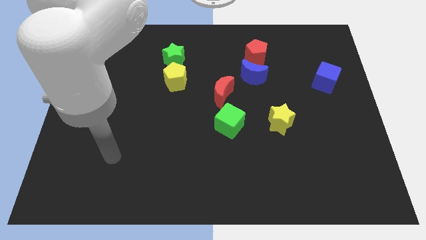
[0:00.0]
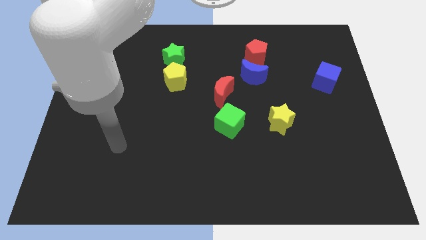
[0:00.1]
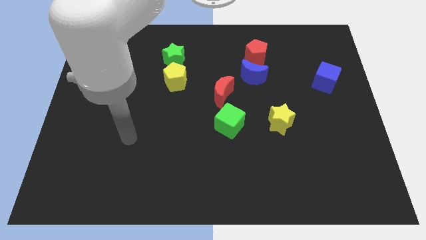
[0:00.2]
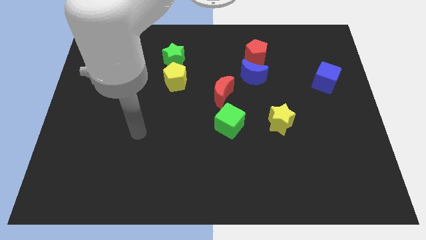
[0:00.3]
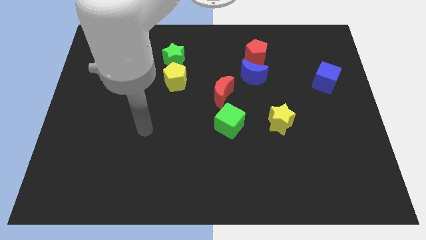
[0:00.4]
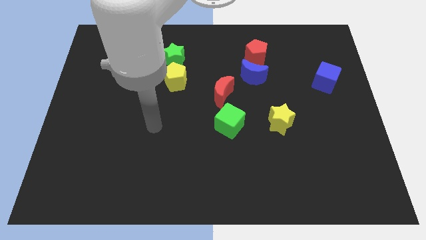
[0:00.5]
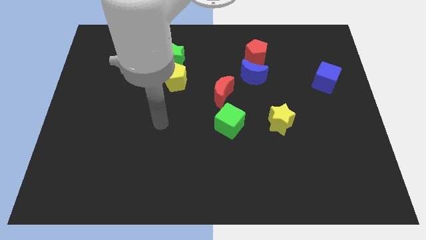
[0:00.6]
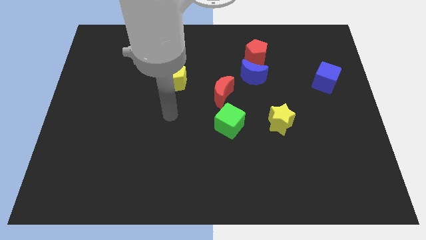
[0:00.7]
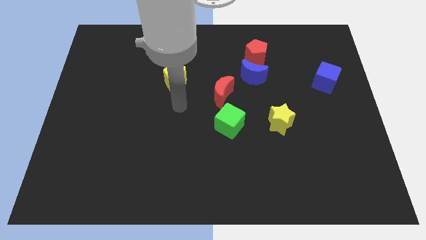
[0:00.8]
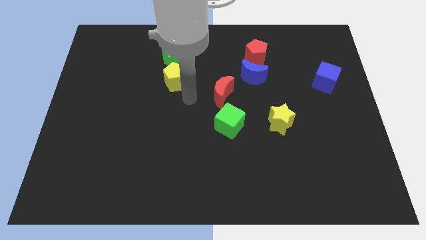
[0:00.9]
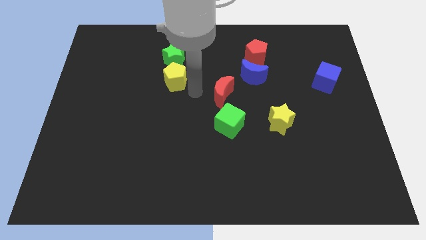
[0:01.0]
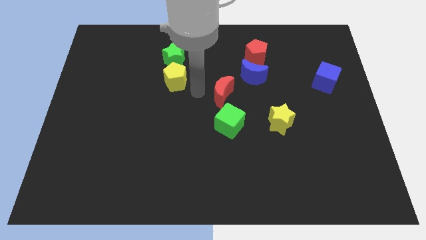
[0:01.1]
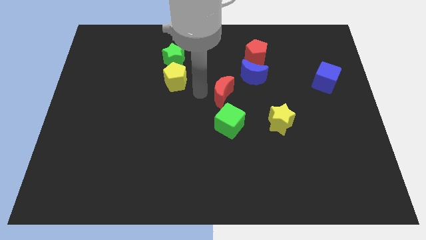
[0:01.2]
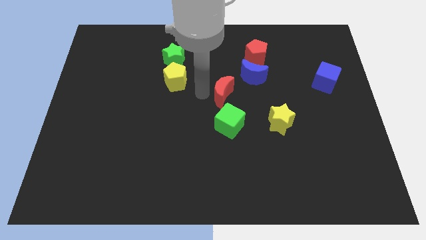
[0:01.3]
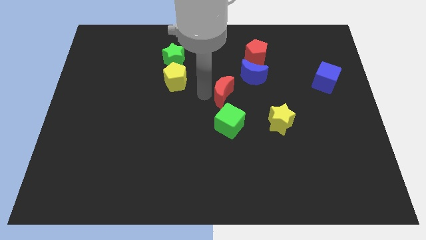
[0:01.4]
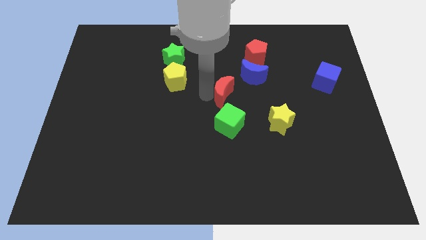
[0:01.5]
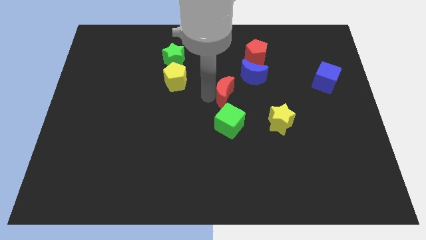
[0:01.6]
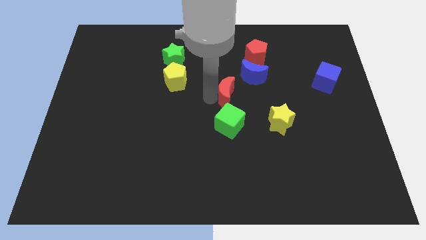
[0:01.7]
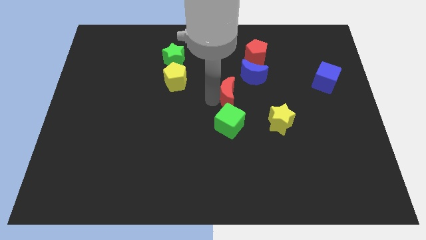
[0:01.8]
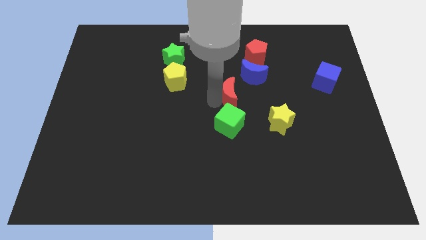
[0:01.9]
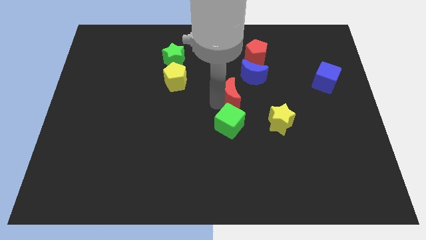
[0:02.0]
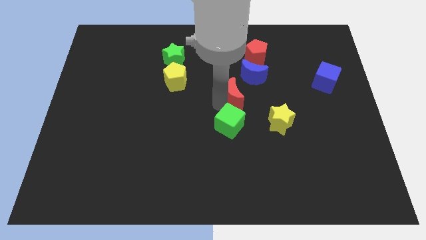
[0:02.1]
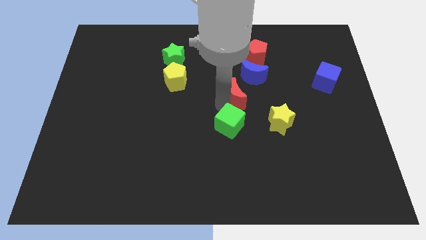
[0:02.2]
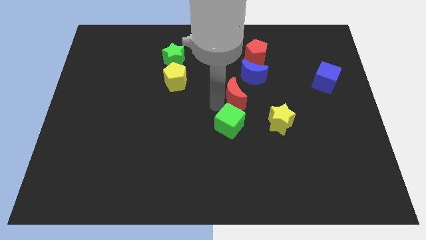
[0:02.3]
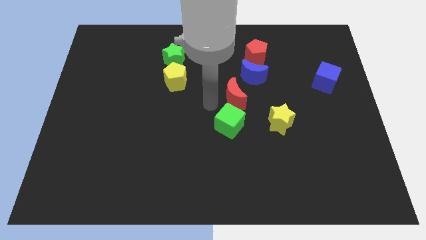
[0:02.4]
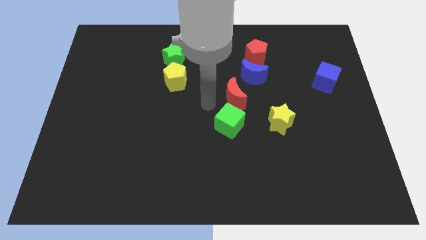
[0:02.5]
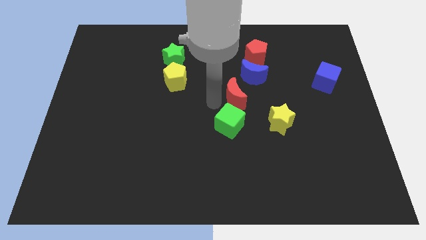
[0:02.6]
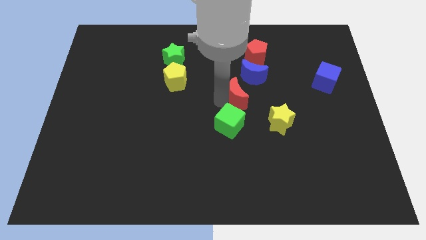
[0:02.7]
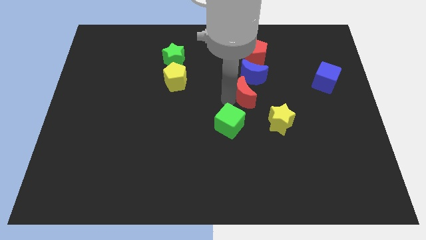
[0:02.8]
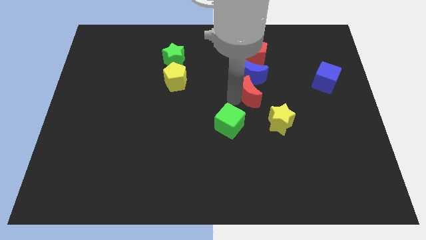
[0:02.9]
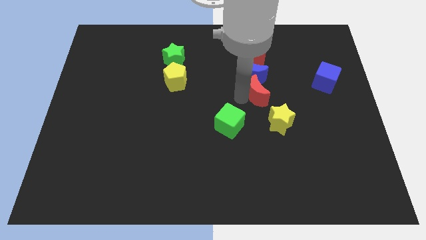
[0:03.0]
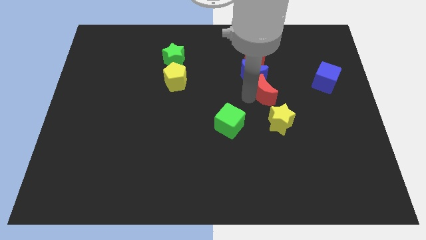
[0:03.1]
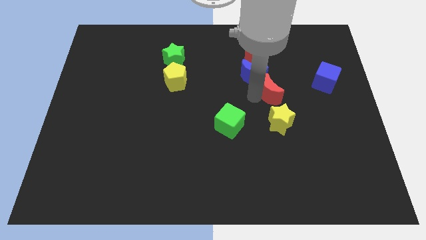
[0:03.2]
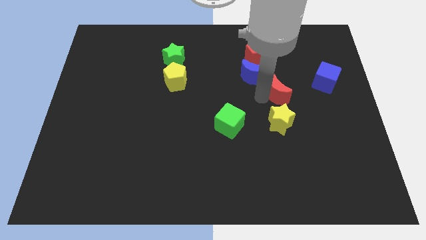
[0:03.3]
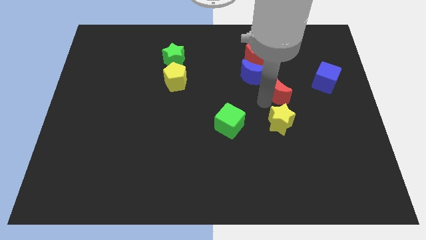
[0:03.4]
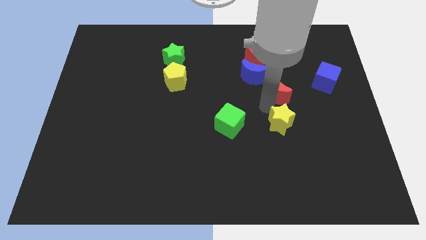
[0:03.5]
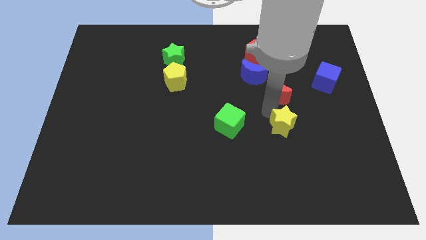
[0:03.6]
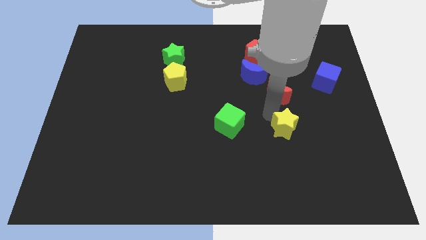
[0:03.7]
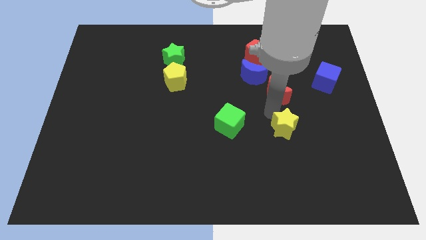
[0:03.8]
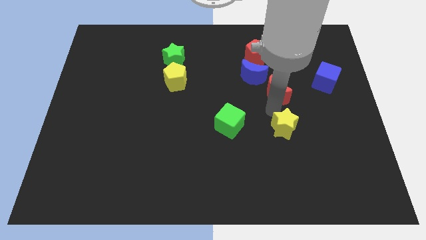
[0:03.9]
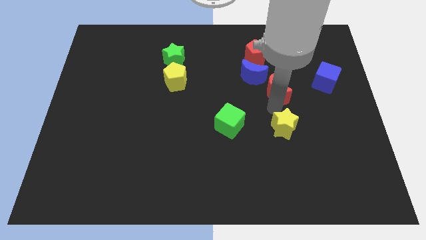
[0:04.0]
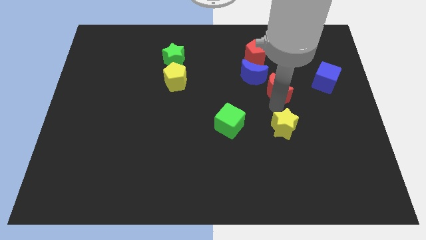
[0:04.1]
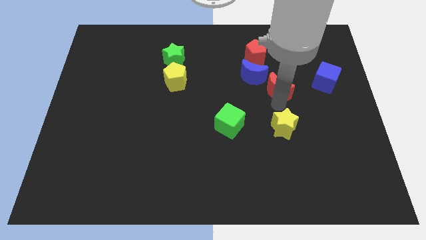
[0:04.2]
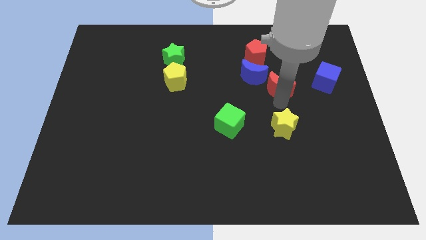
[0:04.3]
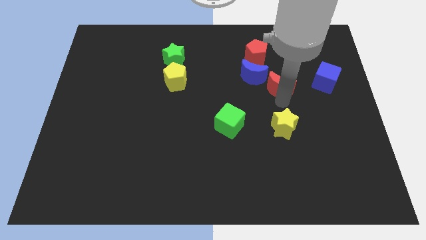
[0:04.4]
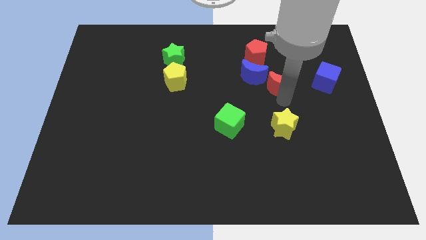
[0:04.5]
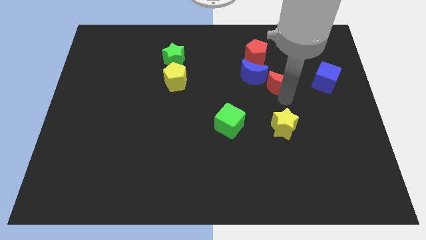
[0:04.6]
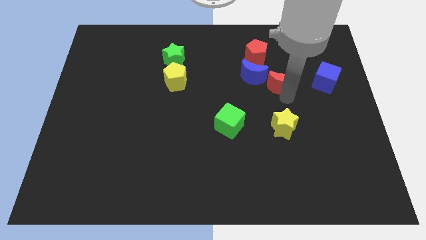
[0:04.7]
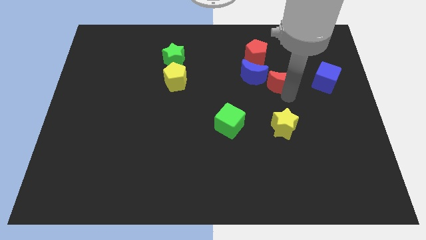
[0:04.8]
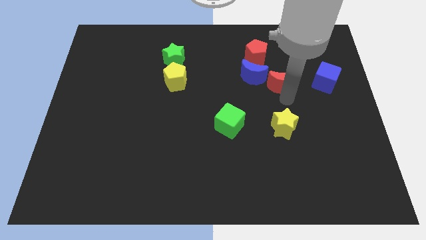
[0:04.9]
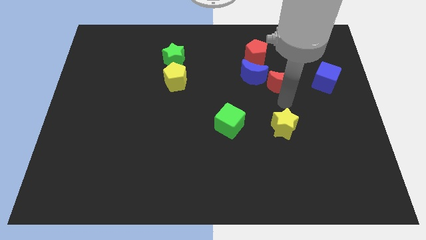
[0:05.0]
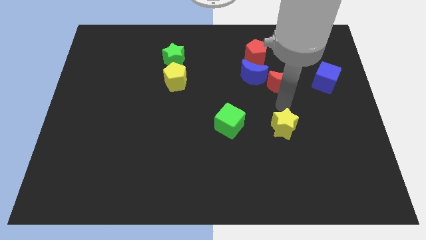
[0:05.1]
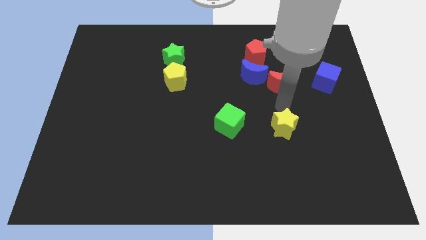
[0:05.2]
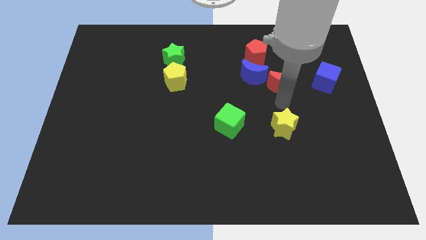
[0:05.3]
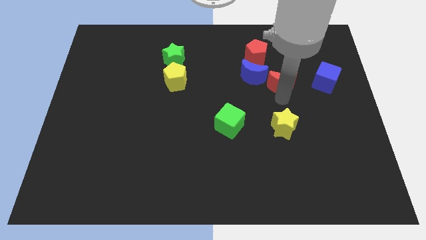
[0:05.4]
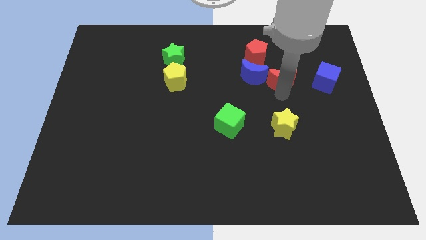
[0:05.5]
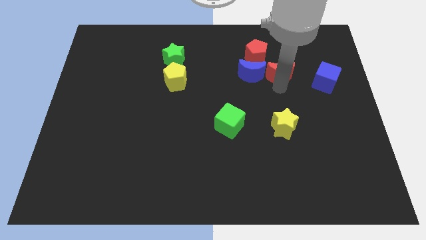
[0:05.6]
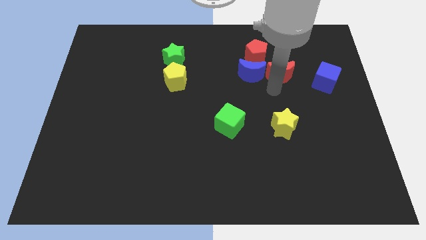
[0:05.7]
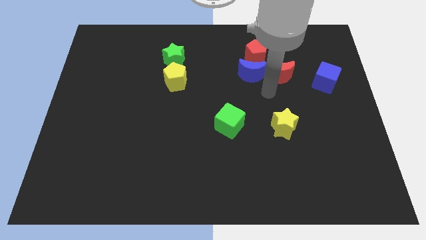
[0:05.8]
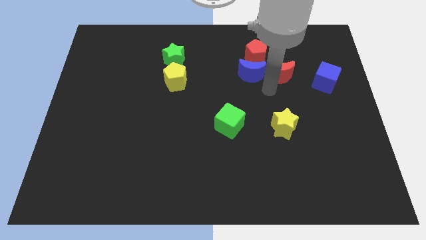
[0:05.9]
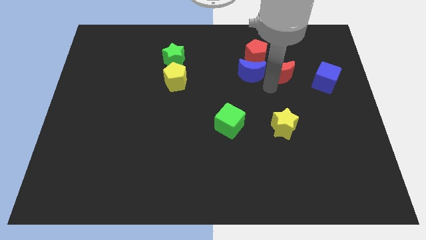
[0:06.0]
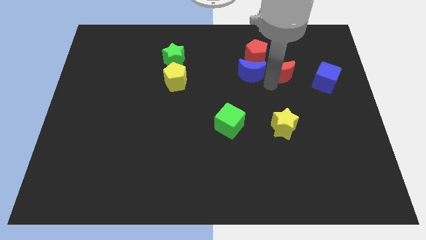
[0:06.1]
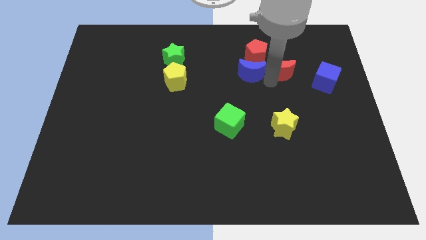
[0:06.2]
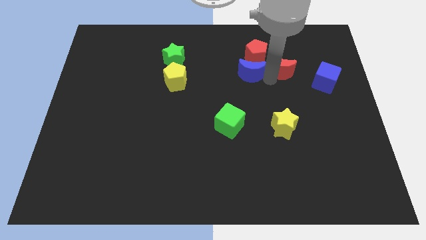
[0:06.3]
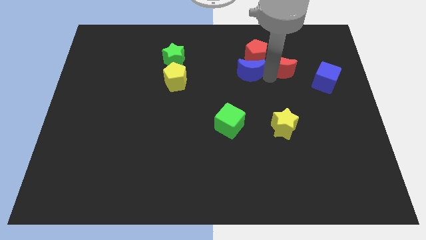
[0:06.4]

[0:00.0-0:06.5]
move the red moon to the right of the red pentagon

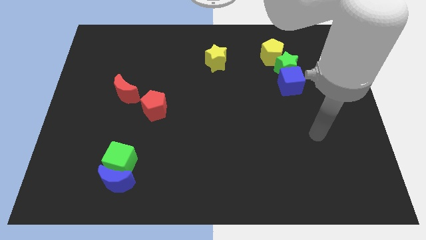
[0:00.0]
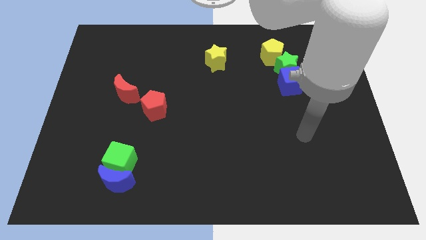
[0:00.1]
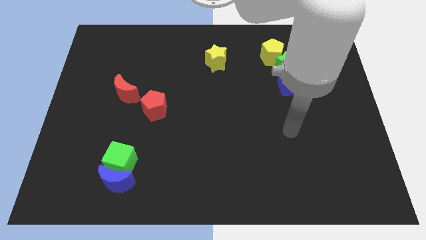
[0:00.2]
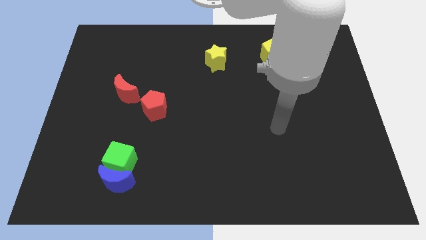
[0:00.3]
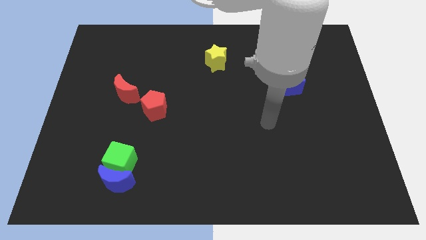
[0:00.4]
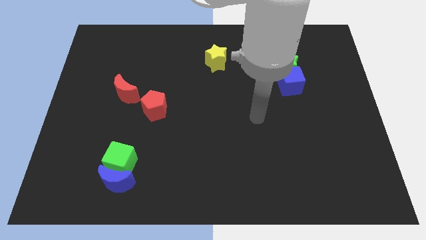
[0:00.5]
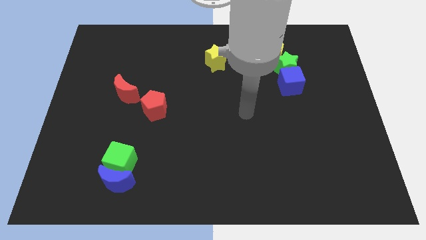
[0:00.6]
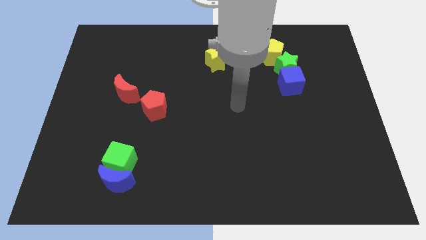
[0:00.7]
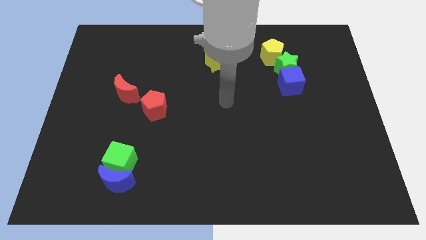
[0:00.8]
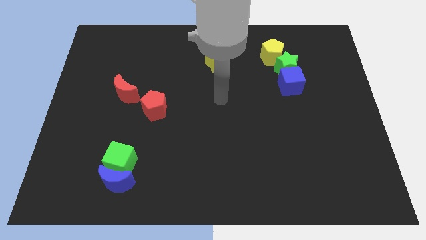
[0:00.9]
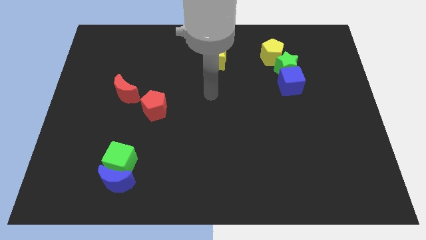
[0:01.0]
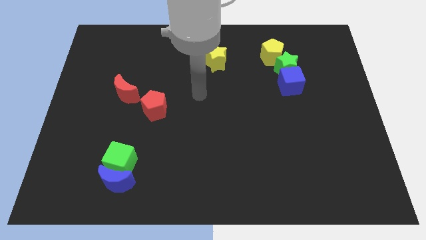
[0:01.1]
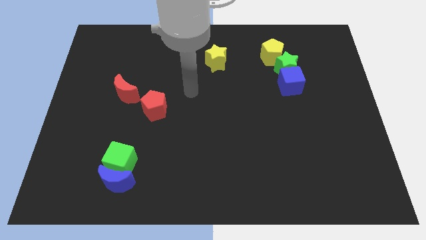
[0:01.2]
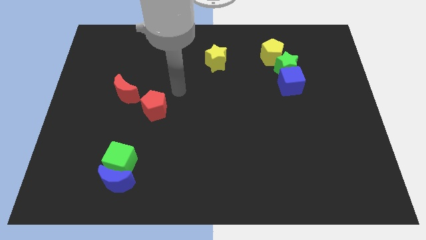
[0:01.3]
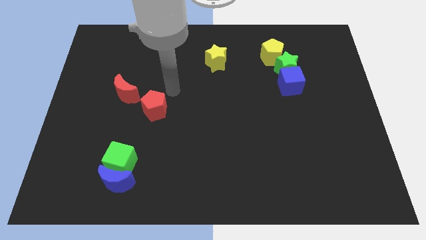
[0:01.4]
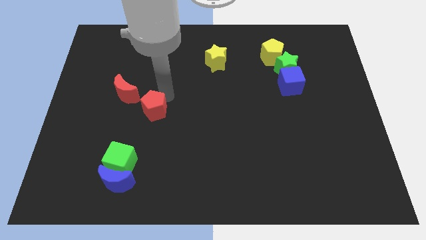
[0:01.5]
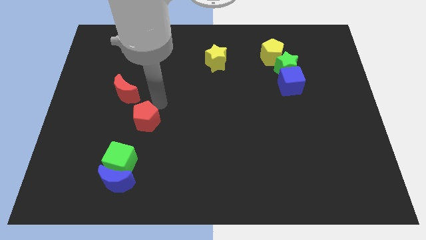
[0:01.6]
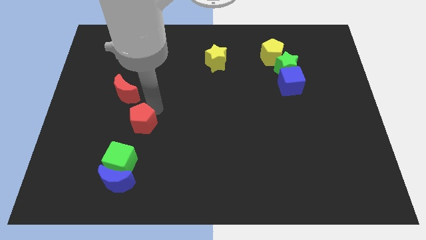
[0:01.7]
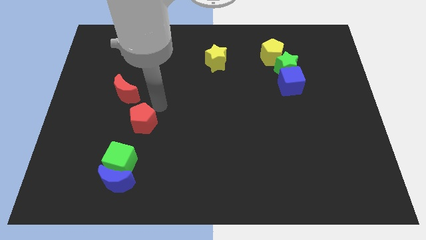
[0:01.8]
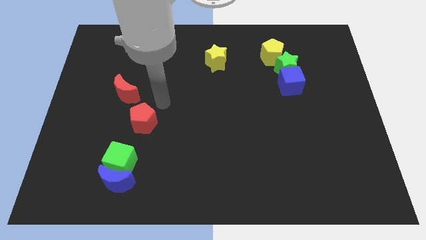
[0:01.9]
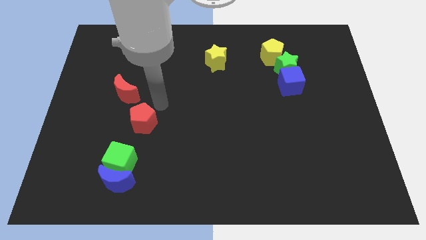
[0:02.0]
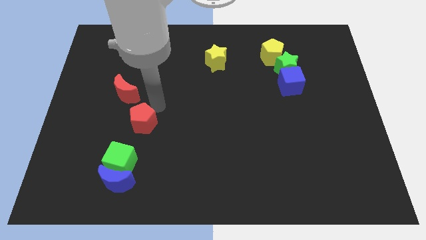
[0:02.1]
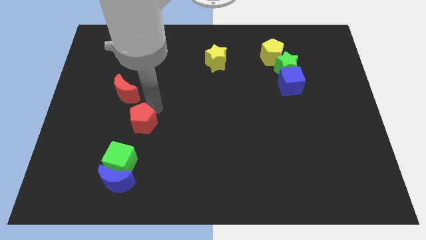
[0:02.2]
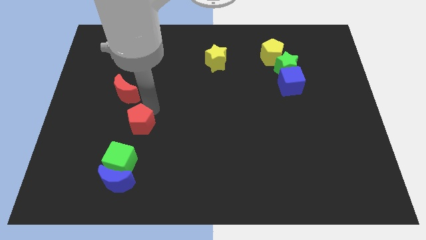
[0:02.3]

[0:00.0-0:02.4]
slide the red pentagon to the top side of the blue moon
